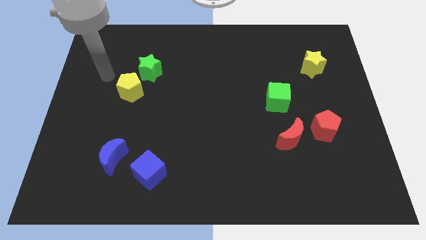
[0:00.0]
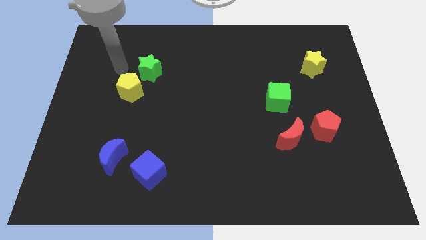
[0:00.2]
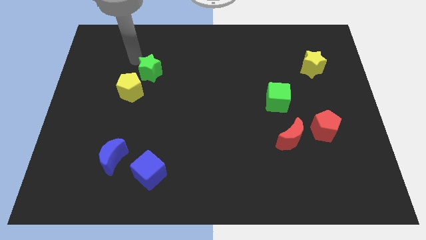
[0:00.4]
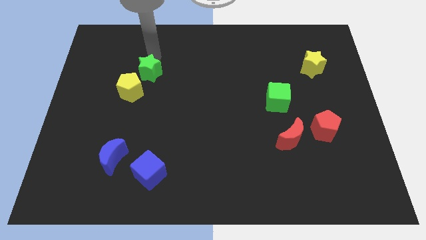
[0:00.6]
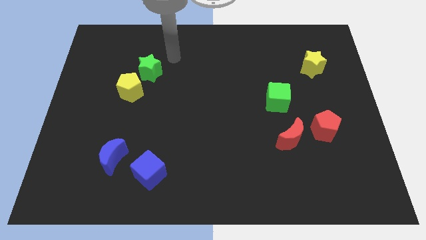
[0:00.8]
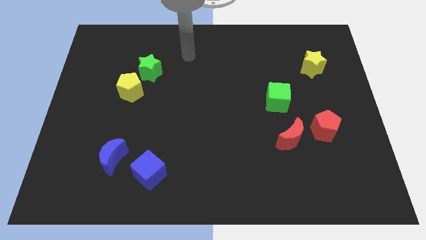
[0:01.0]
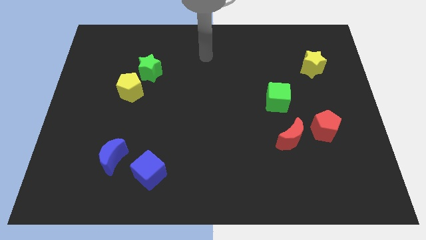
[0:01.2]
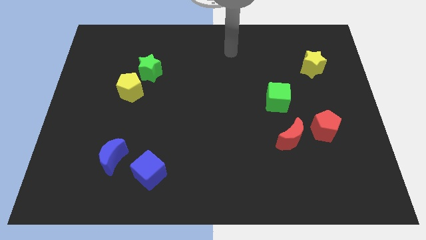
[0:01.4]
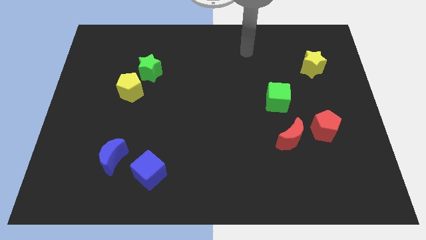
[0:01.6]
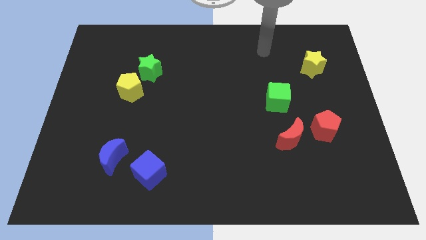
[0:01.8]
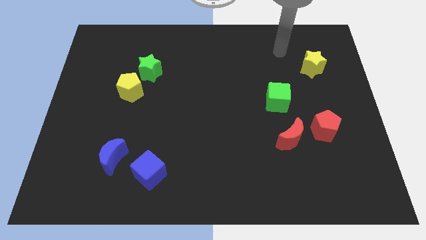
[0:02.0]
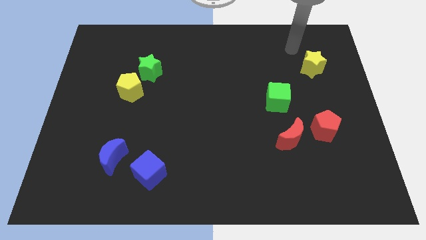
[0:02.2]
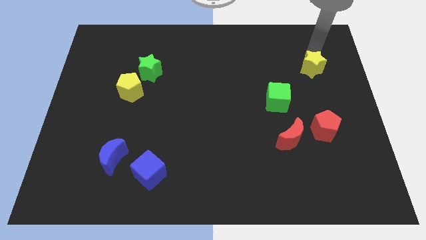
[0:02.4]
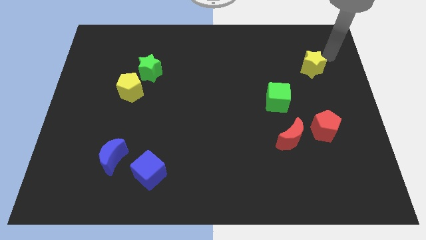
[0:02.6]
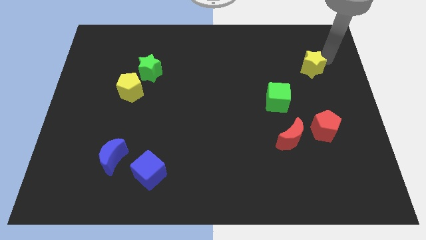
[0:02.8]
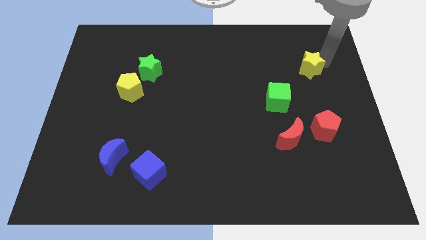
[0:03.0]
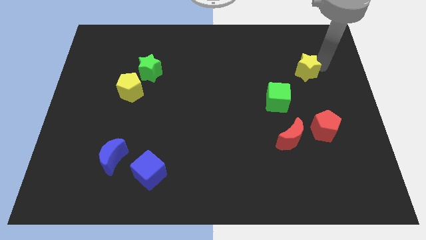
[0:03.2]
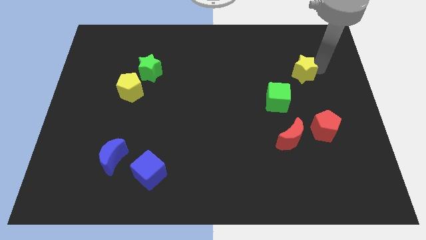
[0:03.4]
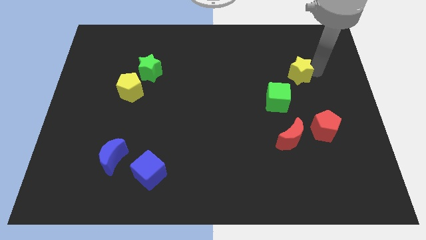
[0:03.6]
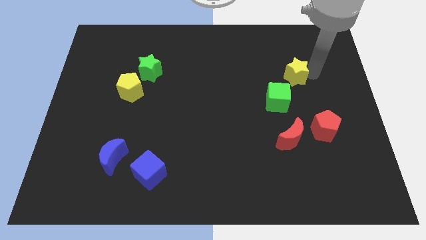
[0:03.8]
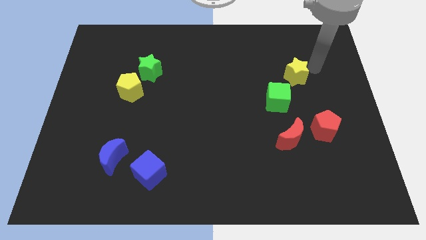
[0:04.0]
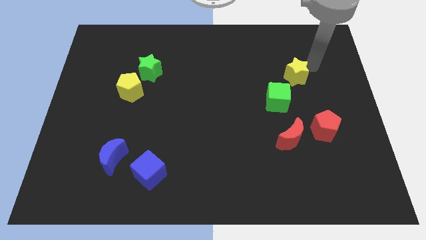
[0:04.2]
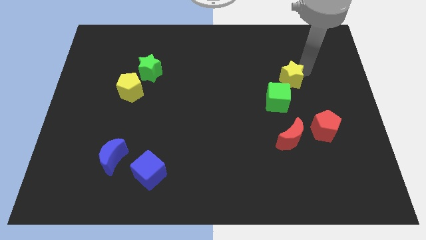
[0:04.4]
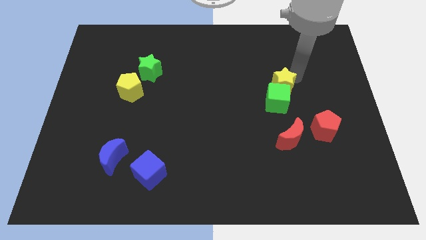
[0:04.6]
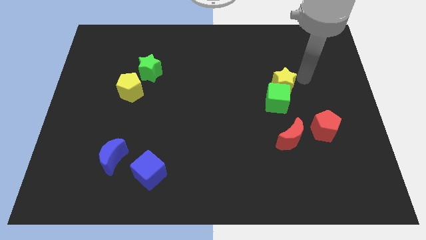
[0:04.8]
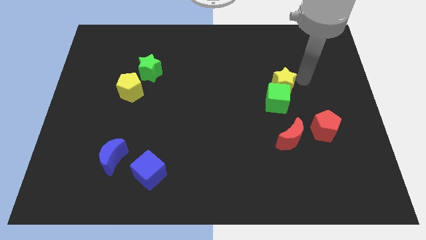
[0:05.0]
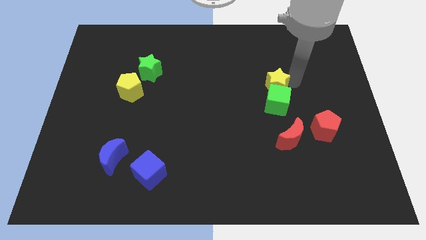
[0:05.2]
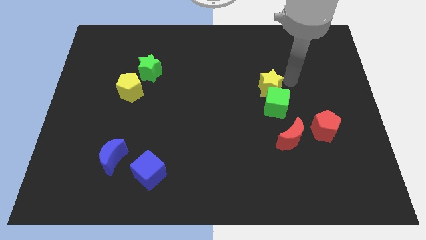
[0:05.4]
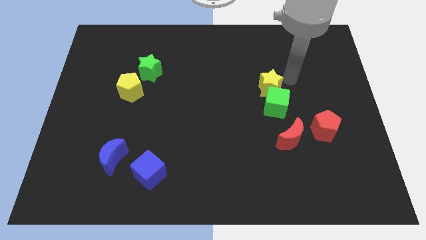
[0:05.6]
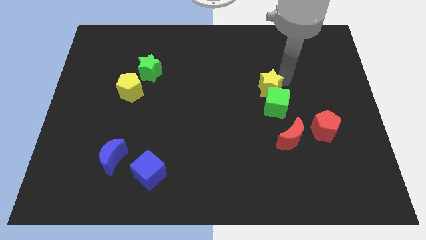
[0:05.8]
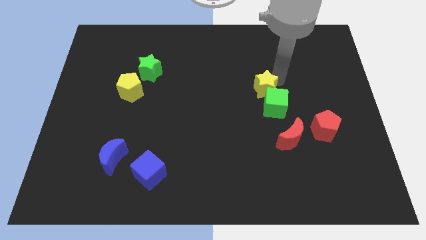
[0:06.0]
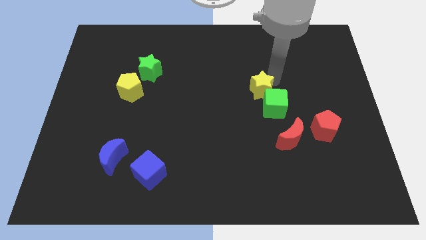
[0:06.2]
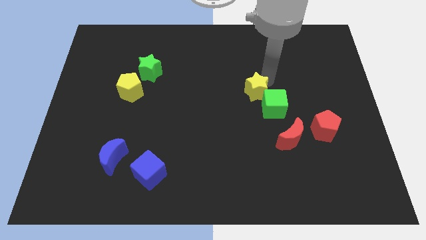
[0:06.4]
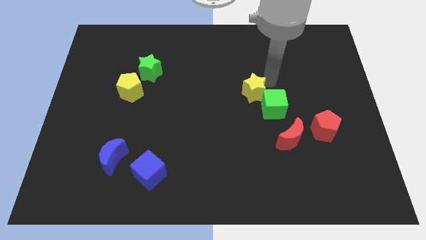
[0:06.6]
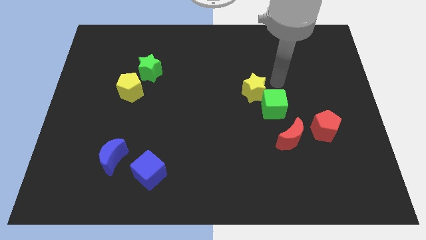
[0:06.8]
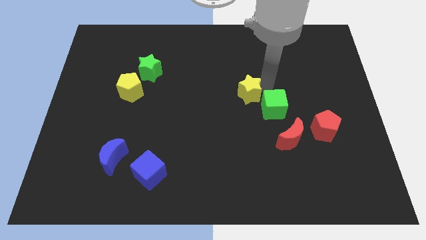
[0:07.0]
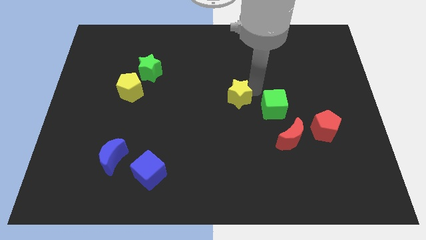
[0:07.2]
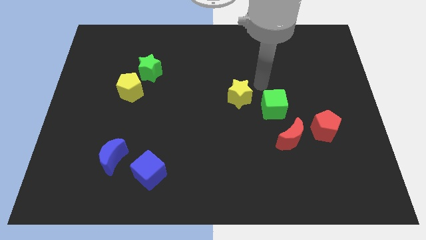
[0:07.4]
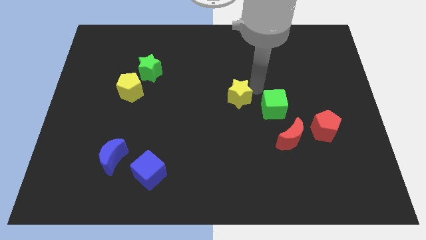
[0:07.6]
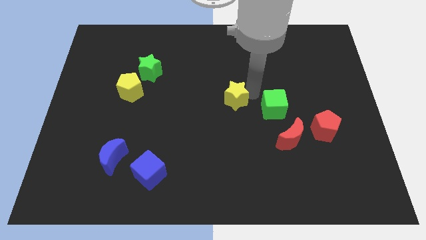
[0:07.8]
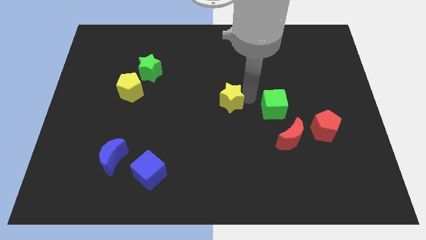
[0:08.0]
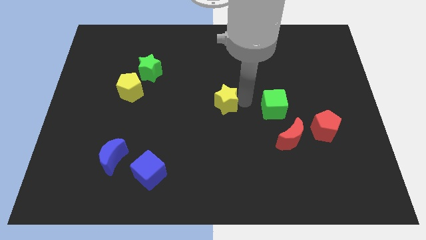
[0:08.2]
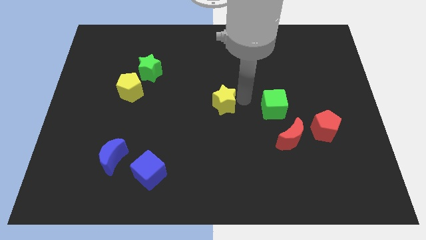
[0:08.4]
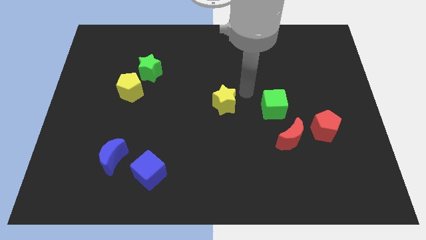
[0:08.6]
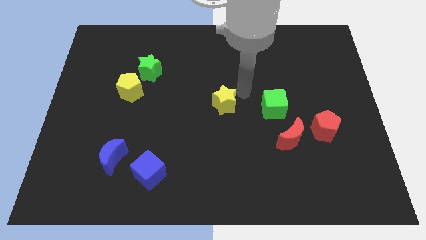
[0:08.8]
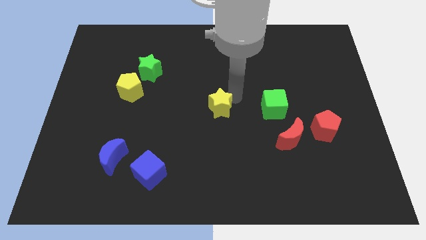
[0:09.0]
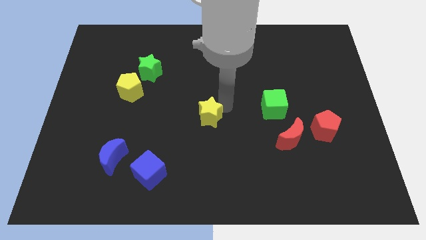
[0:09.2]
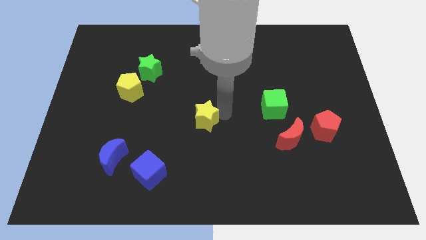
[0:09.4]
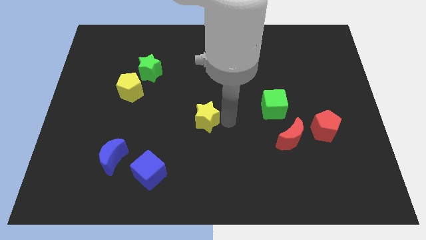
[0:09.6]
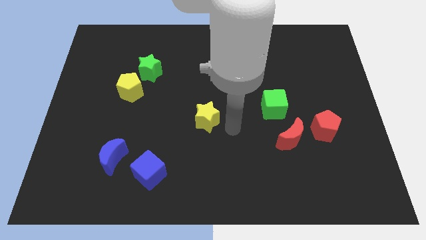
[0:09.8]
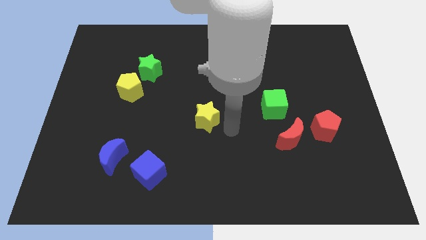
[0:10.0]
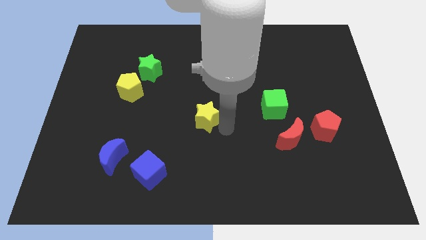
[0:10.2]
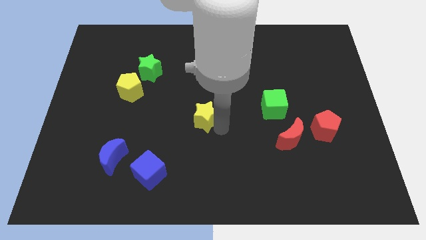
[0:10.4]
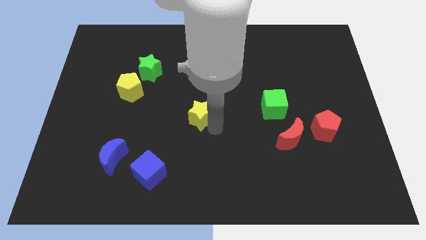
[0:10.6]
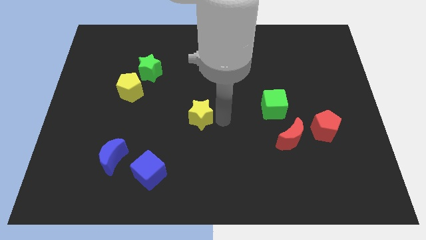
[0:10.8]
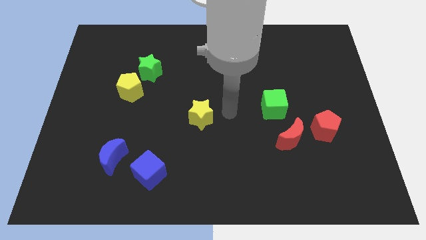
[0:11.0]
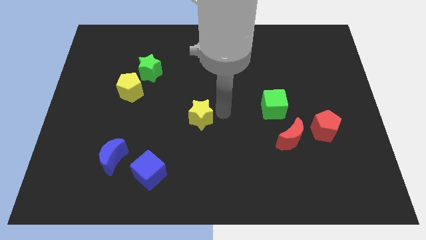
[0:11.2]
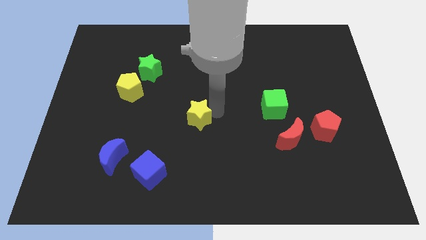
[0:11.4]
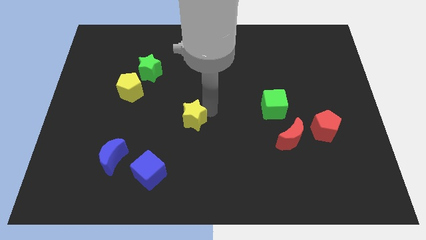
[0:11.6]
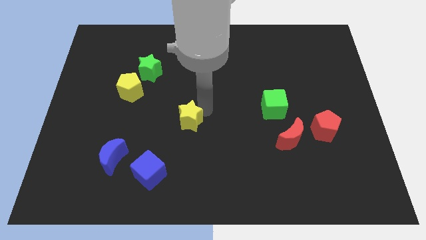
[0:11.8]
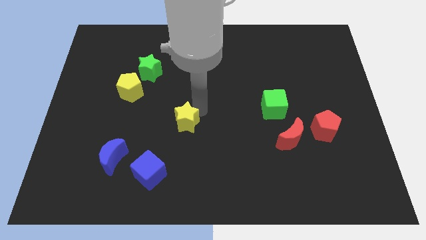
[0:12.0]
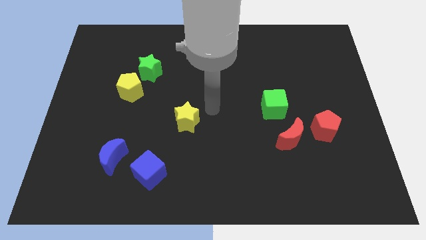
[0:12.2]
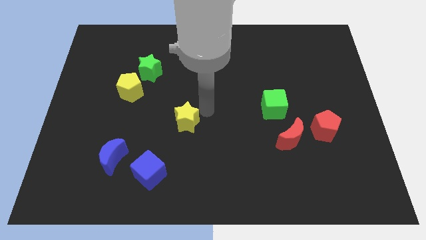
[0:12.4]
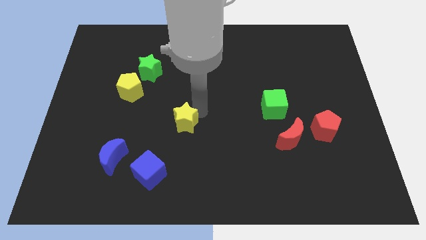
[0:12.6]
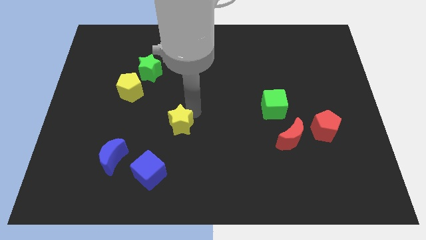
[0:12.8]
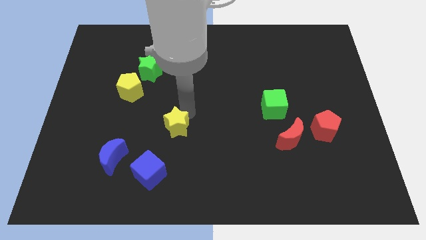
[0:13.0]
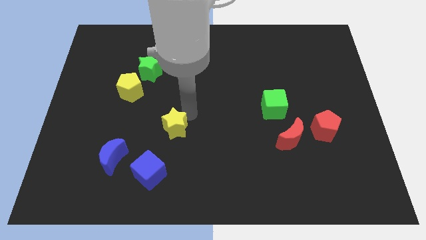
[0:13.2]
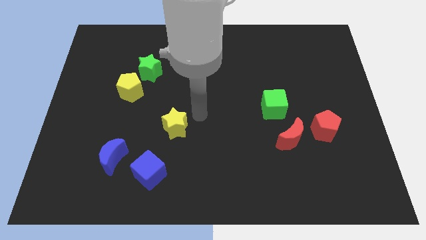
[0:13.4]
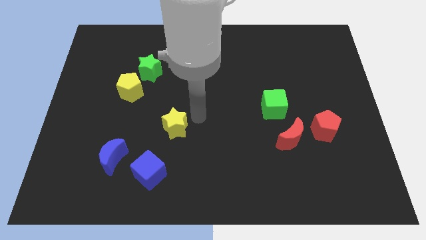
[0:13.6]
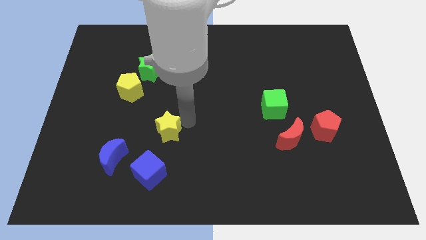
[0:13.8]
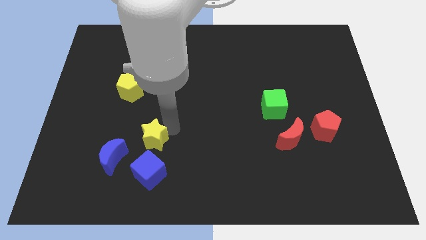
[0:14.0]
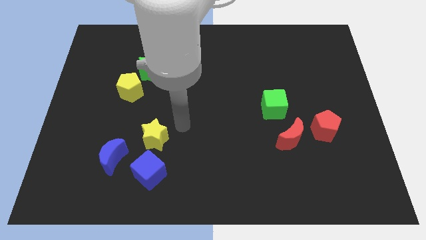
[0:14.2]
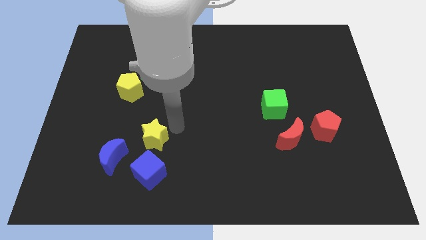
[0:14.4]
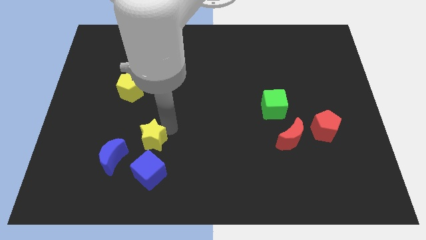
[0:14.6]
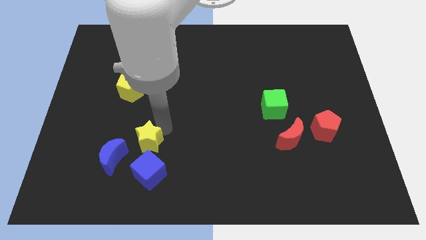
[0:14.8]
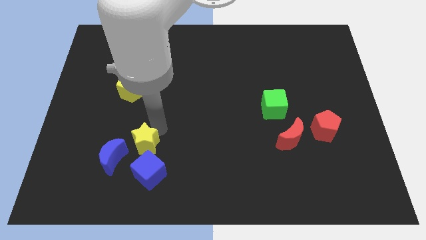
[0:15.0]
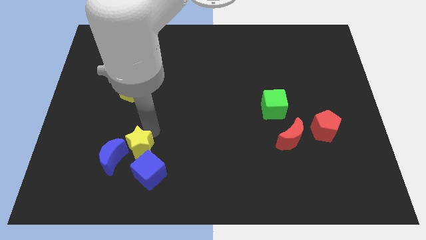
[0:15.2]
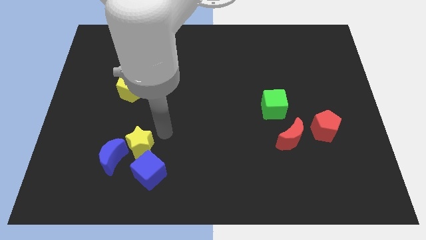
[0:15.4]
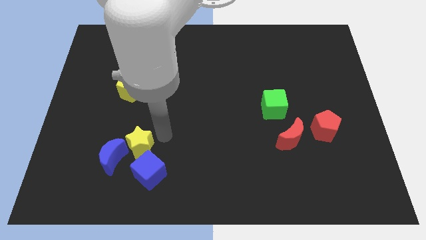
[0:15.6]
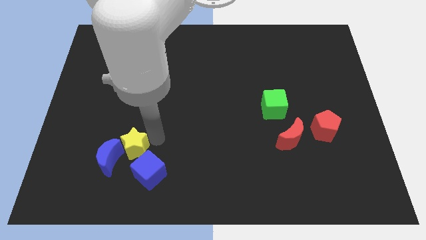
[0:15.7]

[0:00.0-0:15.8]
push the yellow star towards the blue moon
